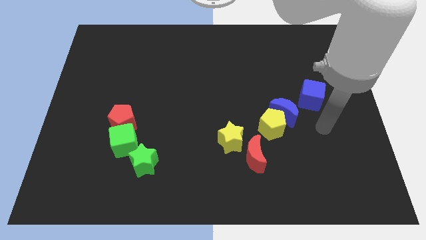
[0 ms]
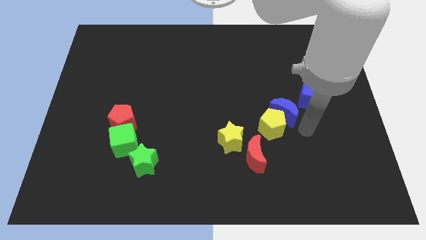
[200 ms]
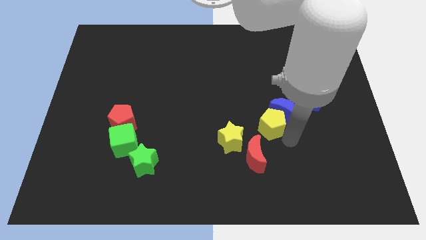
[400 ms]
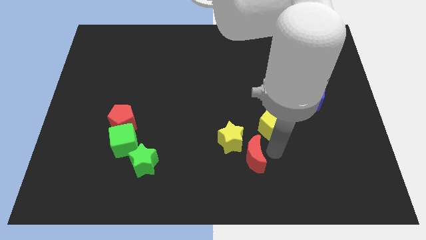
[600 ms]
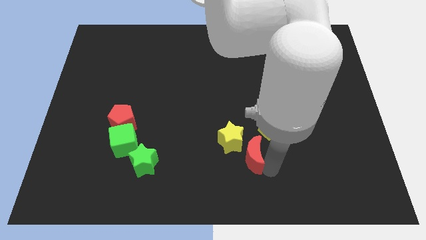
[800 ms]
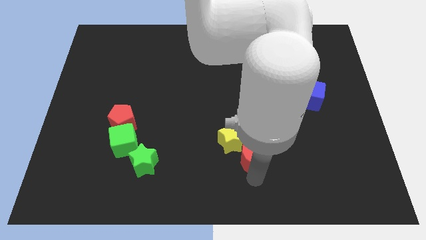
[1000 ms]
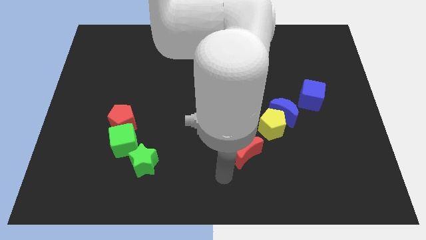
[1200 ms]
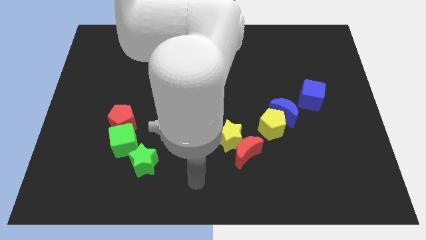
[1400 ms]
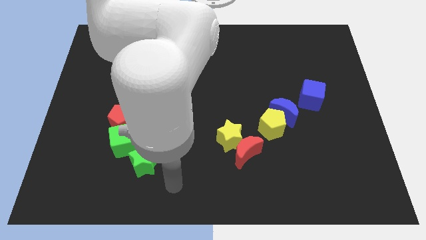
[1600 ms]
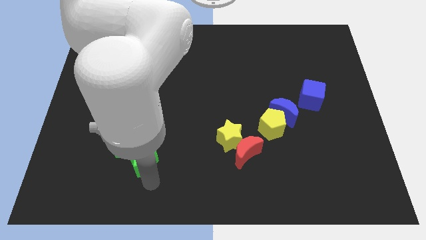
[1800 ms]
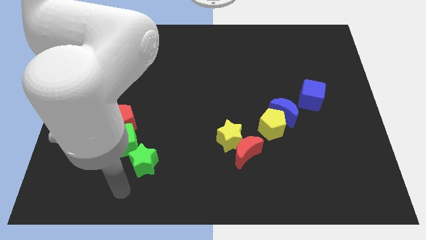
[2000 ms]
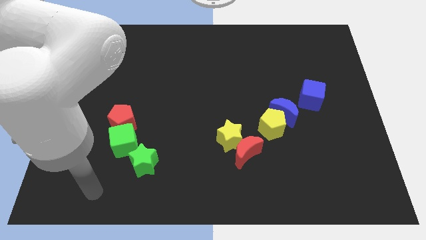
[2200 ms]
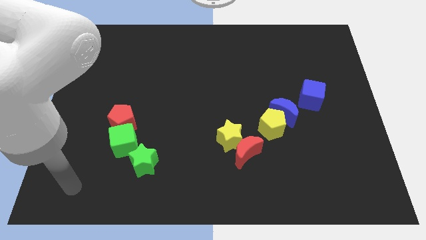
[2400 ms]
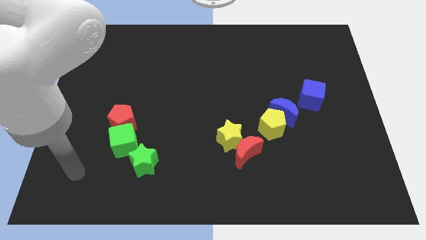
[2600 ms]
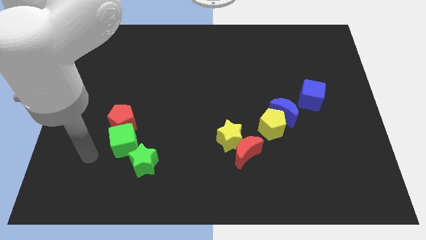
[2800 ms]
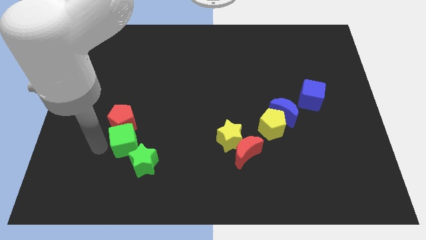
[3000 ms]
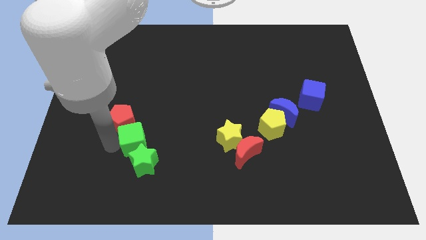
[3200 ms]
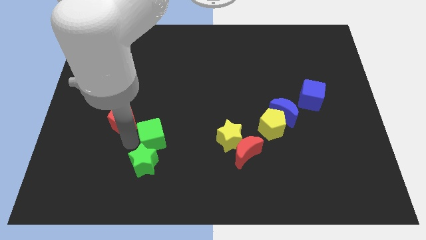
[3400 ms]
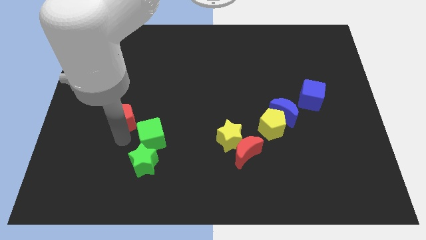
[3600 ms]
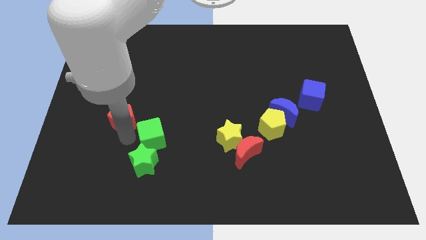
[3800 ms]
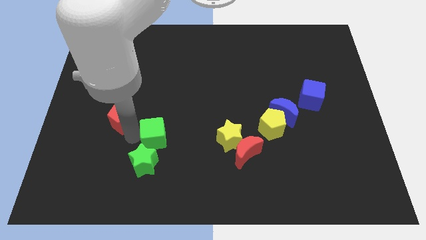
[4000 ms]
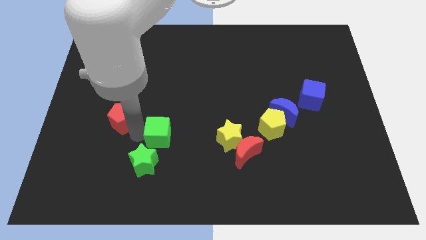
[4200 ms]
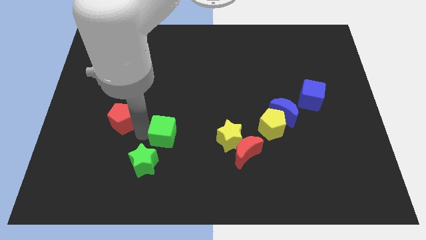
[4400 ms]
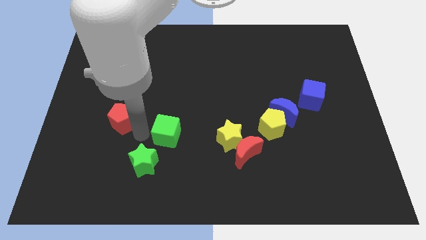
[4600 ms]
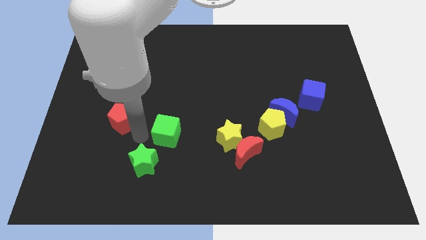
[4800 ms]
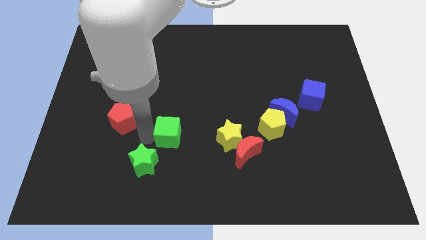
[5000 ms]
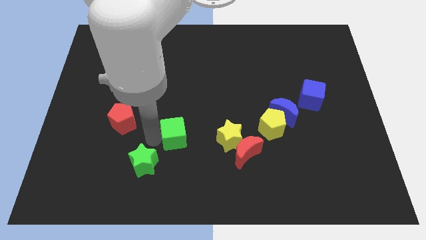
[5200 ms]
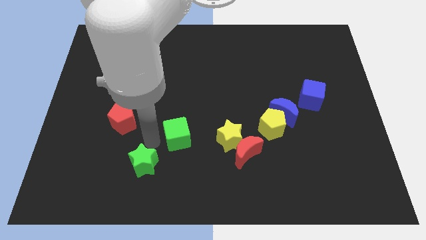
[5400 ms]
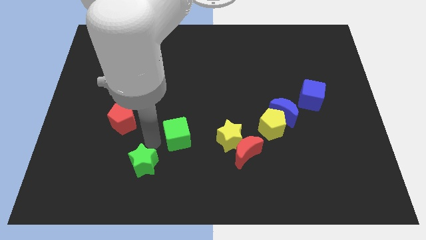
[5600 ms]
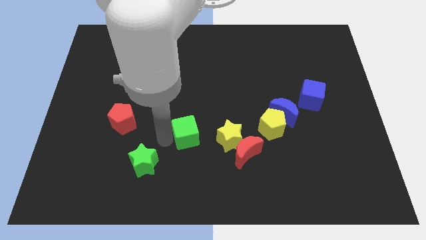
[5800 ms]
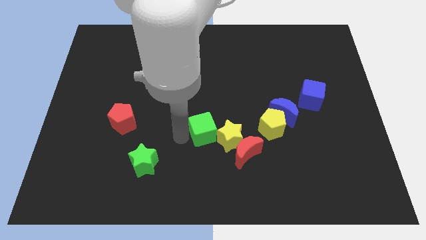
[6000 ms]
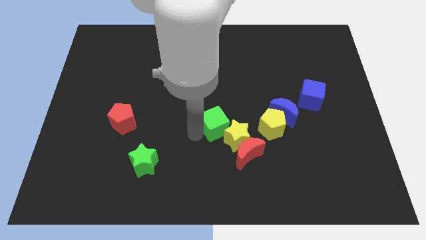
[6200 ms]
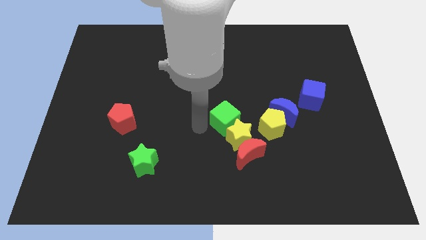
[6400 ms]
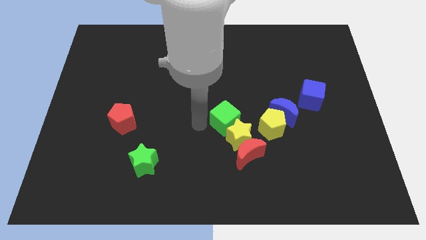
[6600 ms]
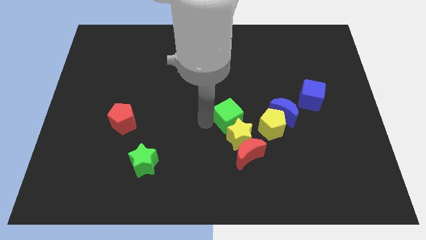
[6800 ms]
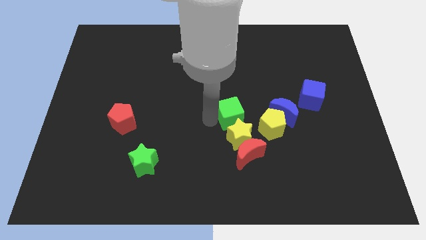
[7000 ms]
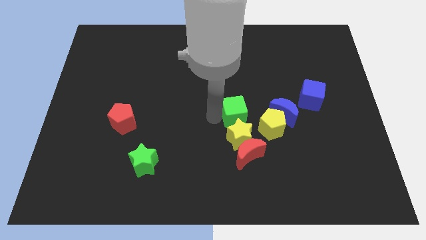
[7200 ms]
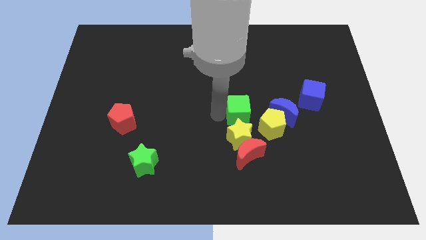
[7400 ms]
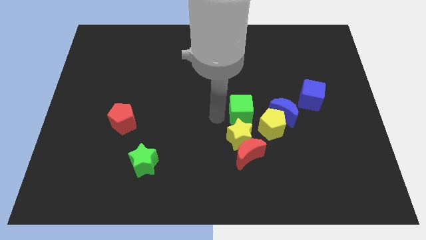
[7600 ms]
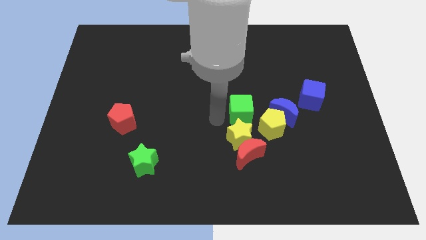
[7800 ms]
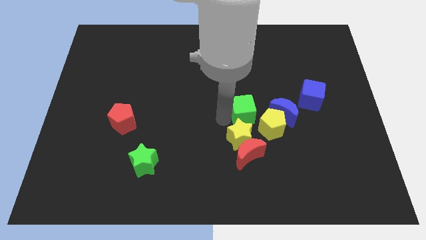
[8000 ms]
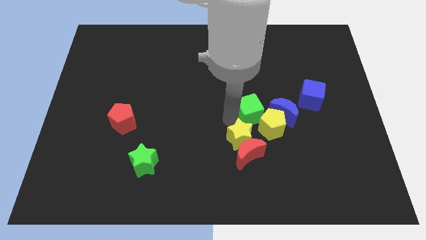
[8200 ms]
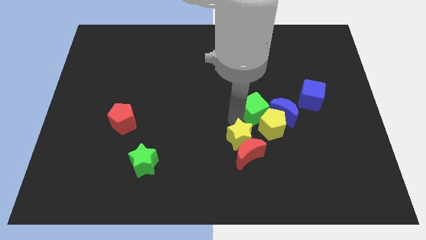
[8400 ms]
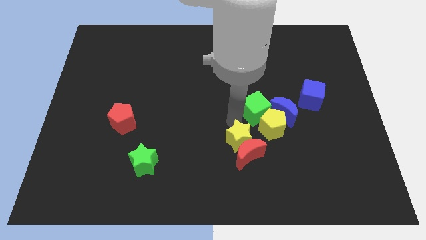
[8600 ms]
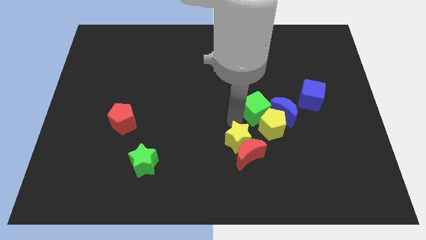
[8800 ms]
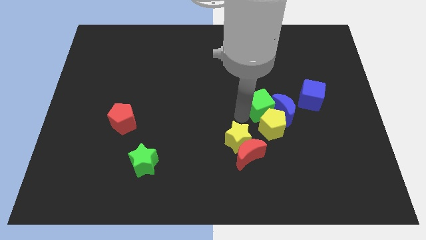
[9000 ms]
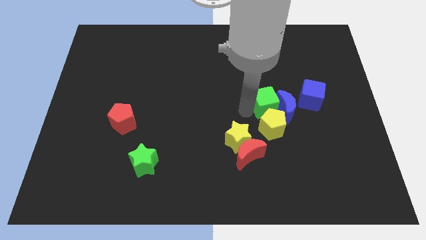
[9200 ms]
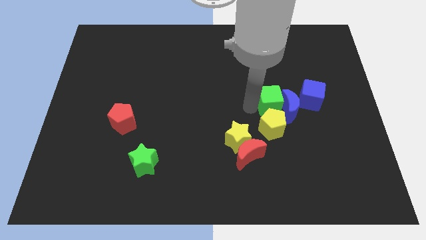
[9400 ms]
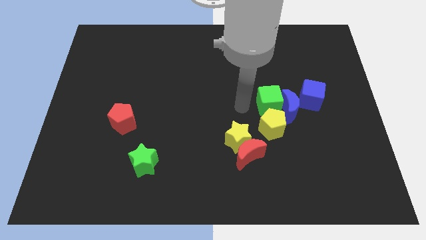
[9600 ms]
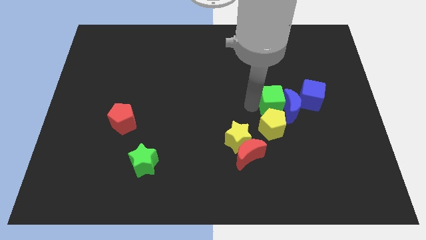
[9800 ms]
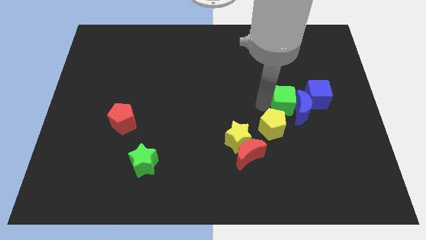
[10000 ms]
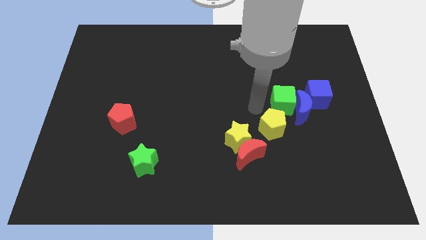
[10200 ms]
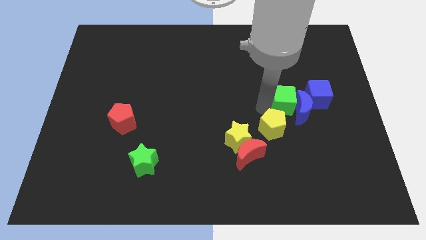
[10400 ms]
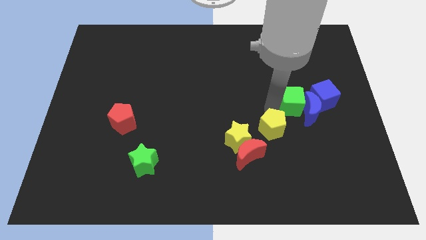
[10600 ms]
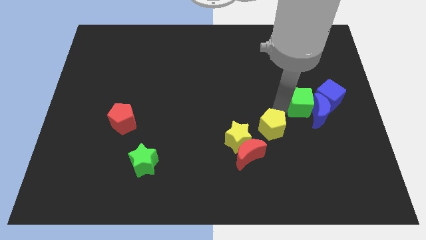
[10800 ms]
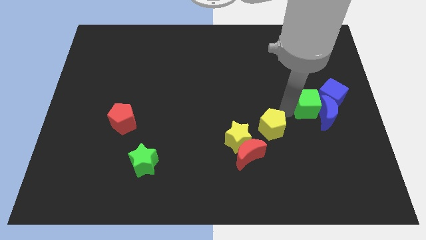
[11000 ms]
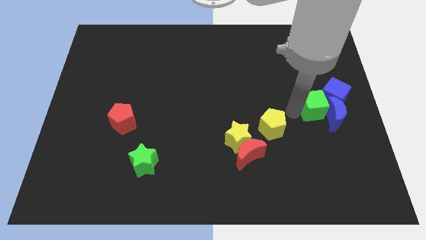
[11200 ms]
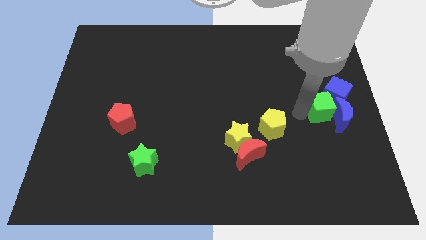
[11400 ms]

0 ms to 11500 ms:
move the green cube towards the blue cube

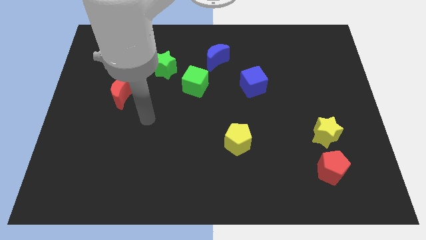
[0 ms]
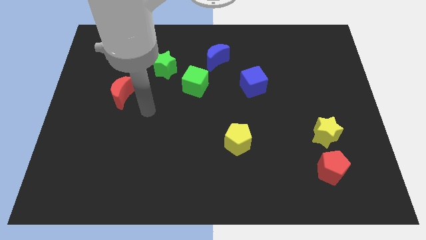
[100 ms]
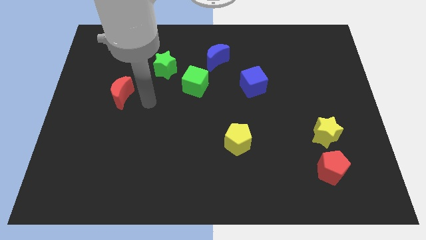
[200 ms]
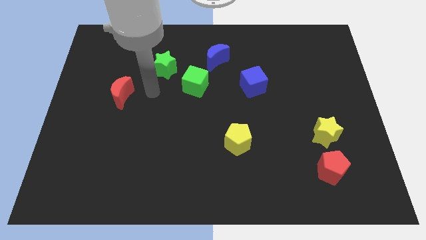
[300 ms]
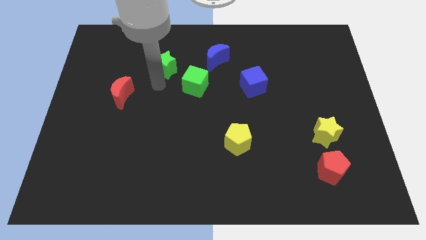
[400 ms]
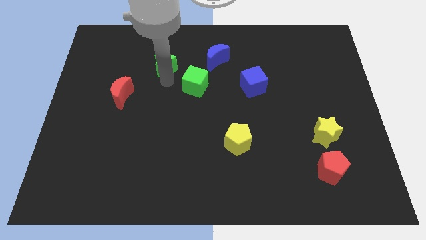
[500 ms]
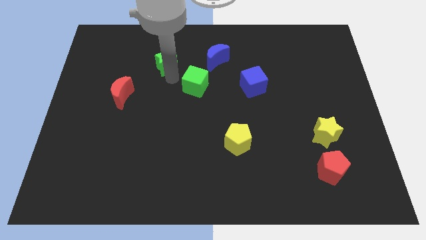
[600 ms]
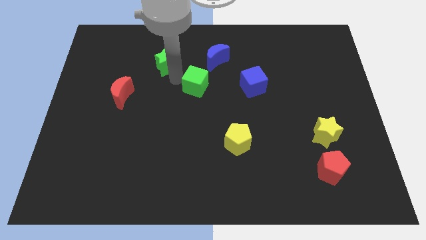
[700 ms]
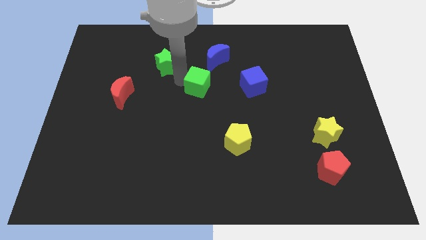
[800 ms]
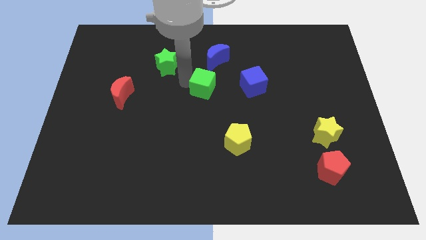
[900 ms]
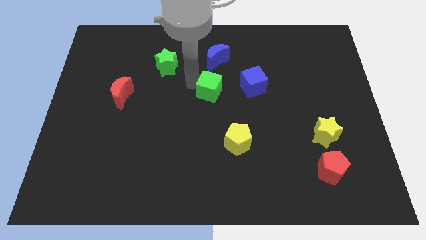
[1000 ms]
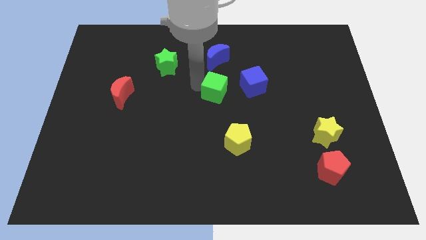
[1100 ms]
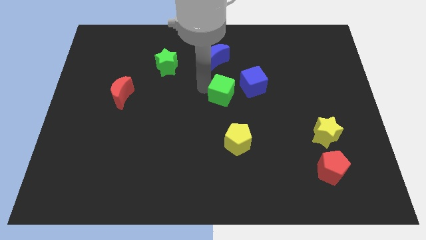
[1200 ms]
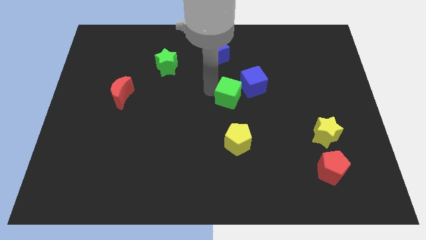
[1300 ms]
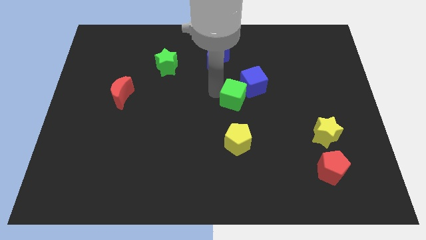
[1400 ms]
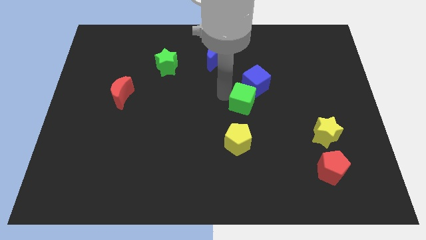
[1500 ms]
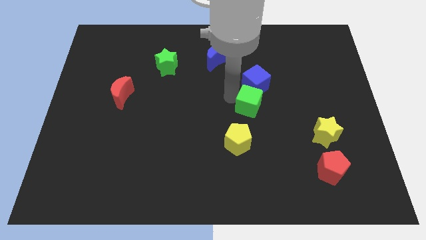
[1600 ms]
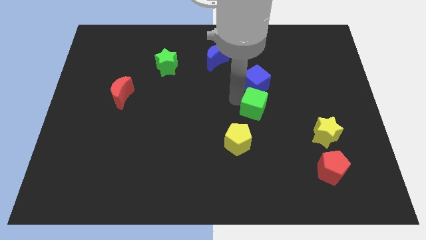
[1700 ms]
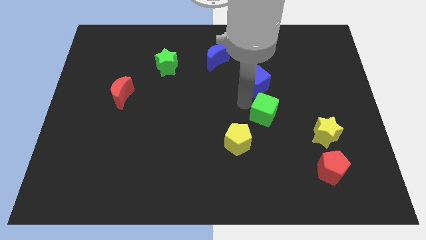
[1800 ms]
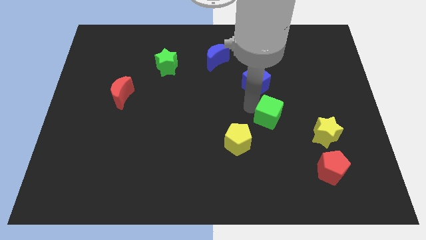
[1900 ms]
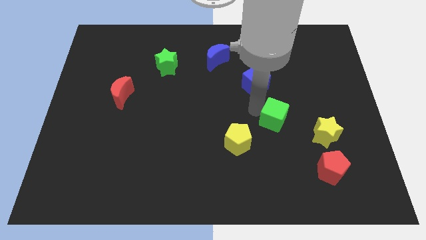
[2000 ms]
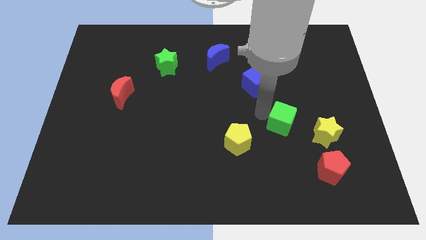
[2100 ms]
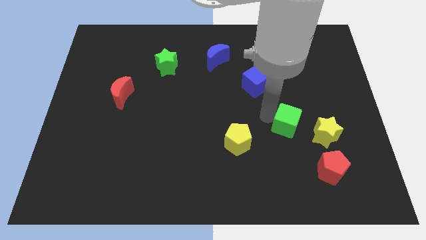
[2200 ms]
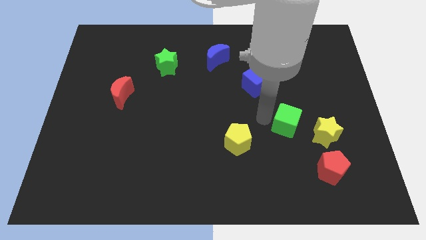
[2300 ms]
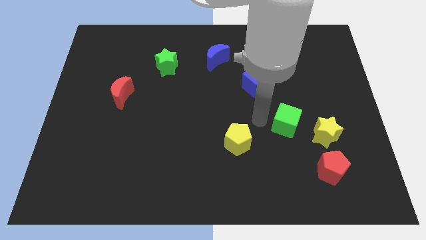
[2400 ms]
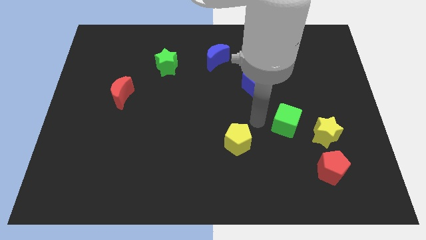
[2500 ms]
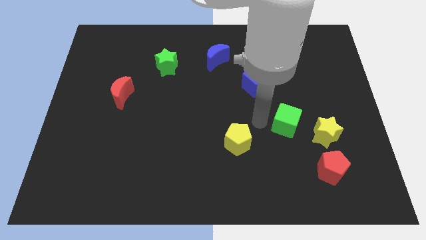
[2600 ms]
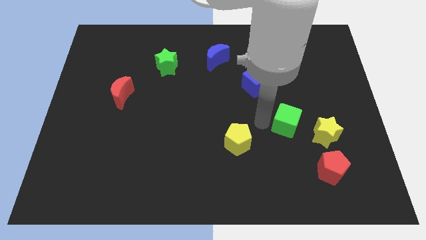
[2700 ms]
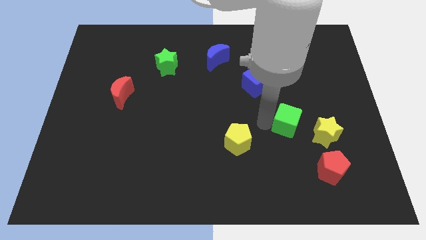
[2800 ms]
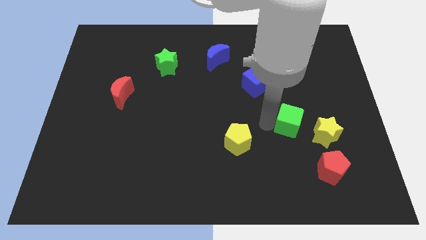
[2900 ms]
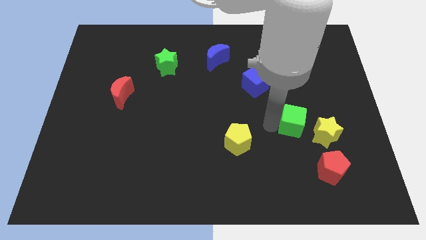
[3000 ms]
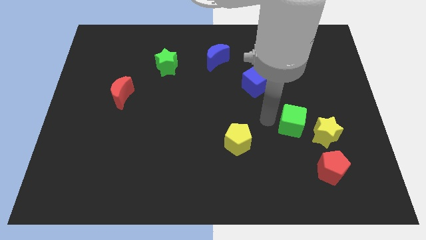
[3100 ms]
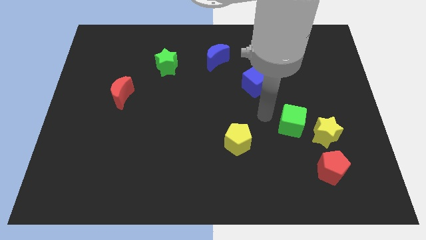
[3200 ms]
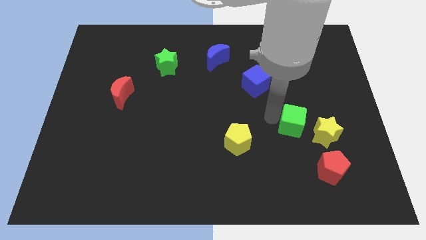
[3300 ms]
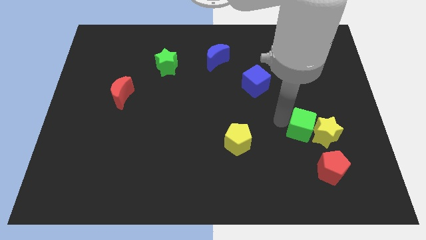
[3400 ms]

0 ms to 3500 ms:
put the green cube next to the yellow star
